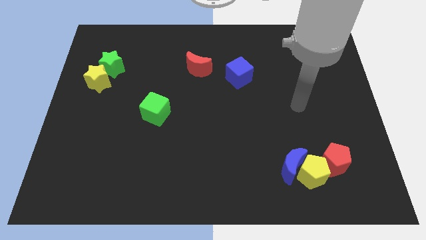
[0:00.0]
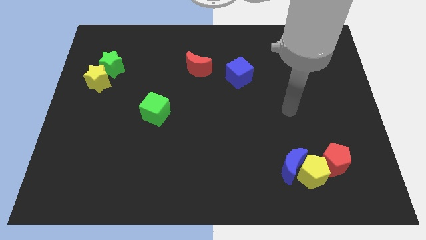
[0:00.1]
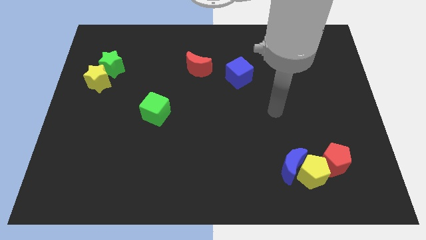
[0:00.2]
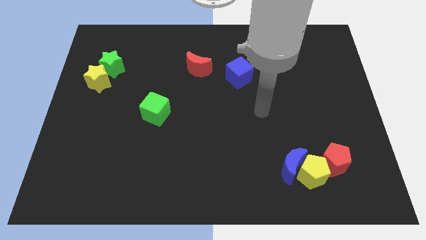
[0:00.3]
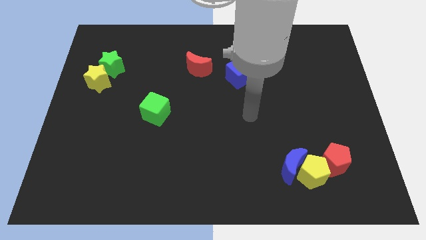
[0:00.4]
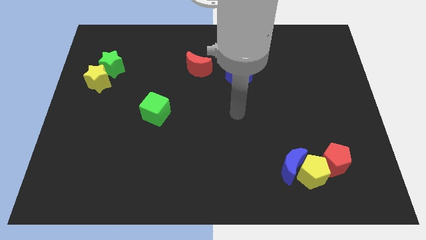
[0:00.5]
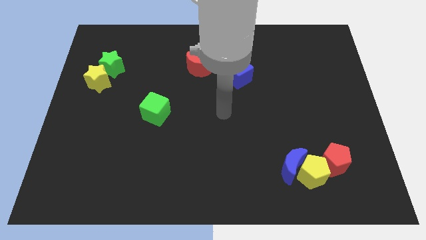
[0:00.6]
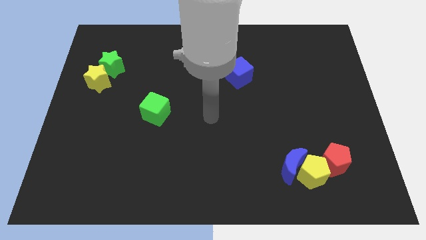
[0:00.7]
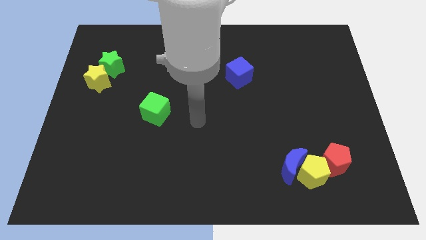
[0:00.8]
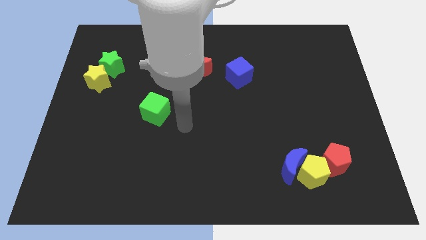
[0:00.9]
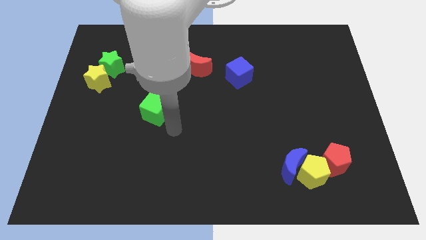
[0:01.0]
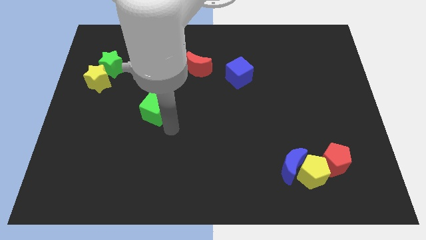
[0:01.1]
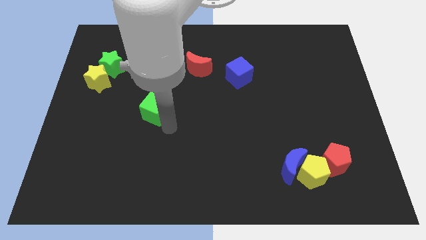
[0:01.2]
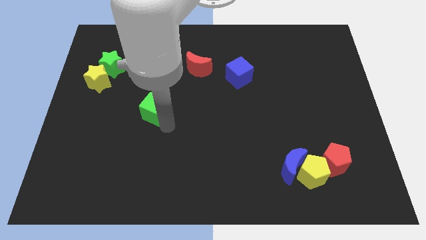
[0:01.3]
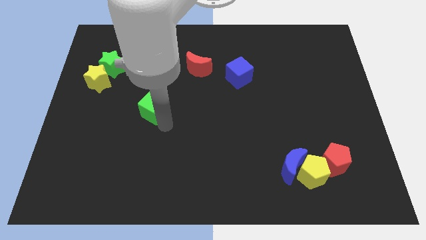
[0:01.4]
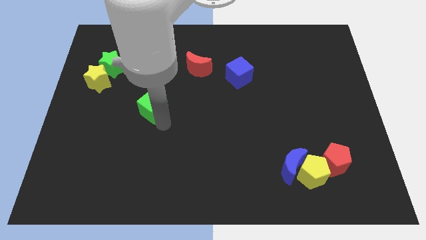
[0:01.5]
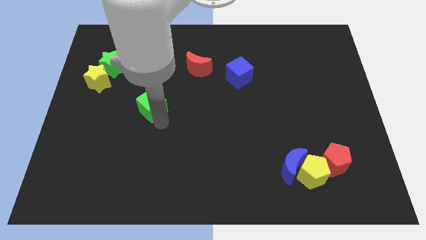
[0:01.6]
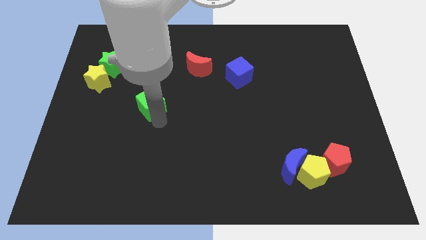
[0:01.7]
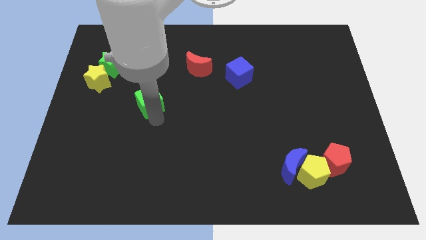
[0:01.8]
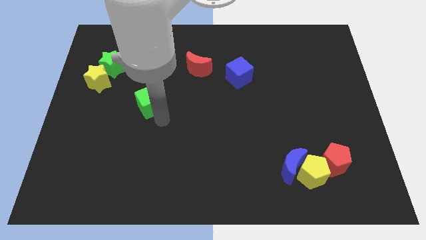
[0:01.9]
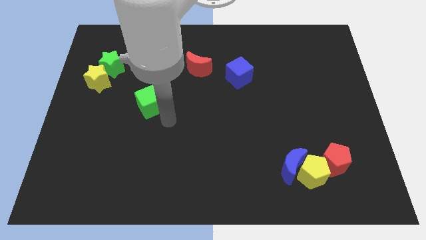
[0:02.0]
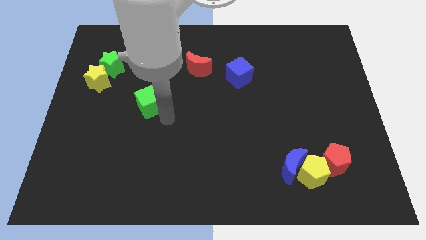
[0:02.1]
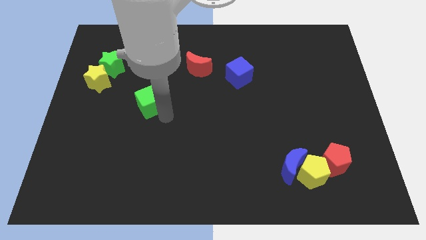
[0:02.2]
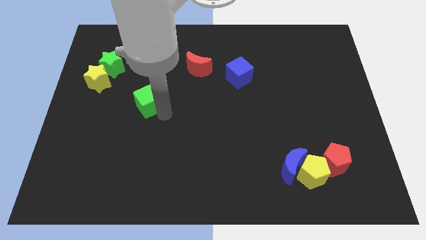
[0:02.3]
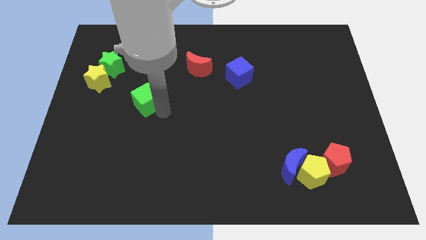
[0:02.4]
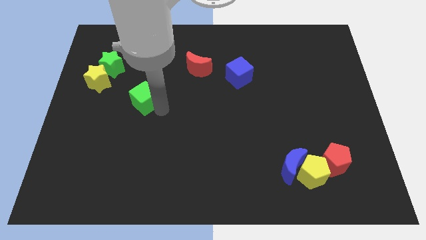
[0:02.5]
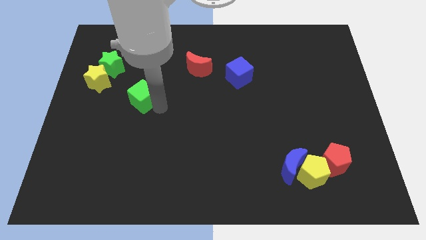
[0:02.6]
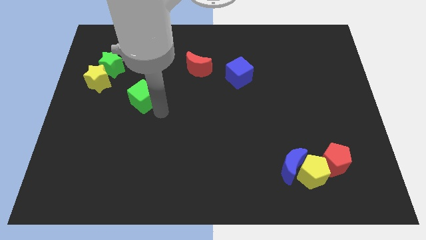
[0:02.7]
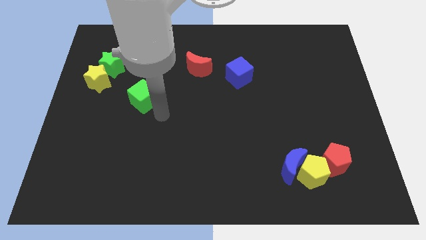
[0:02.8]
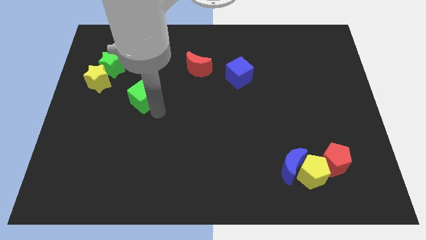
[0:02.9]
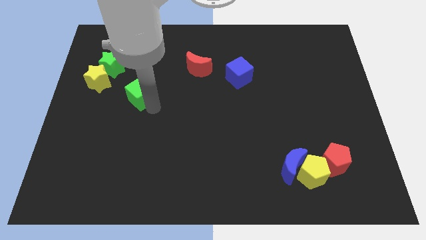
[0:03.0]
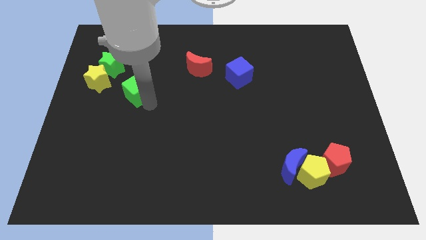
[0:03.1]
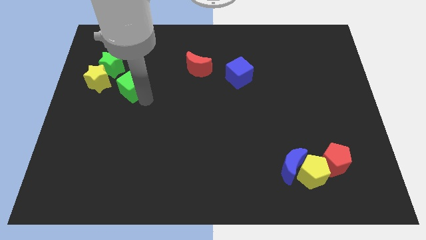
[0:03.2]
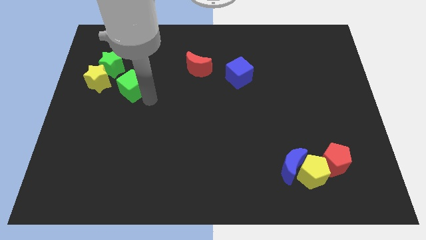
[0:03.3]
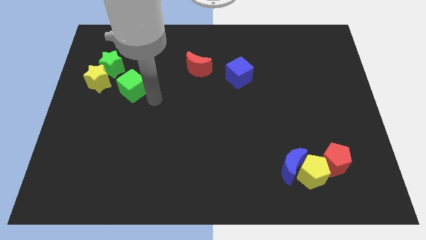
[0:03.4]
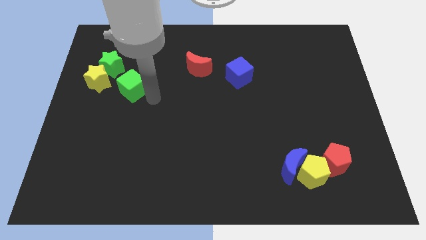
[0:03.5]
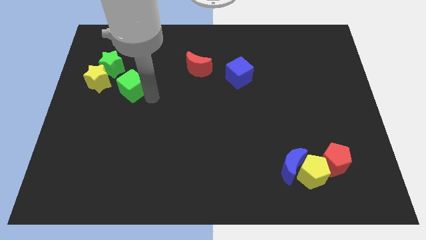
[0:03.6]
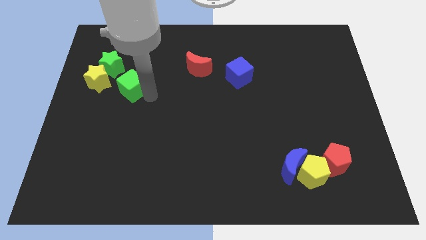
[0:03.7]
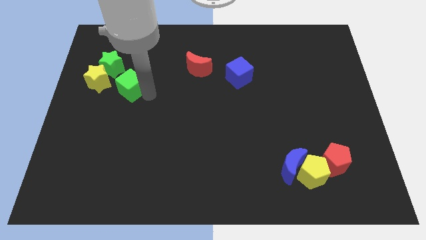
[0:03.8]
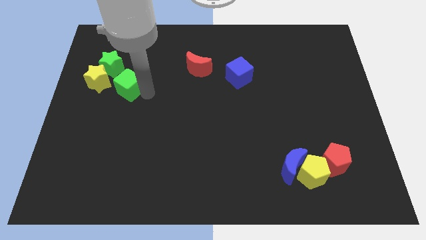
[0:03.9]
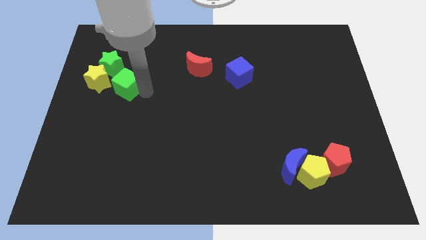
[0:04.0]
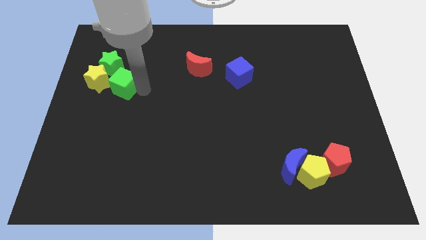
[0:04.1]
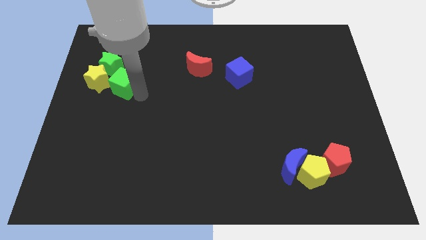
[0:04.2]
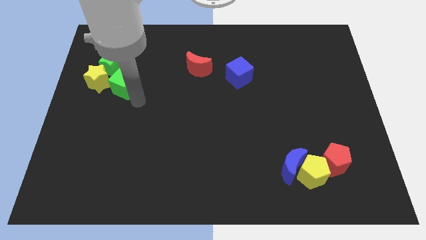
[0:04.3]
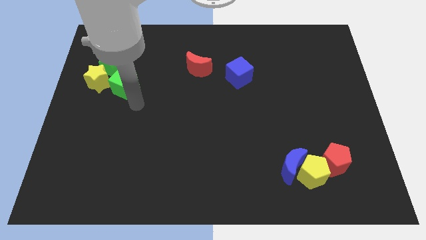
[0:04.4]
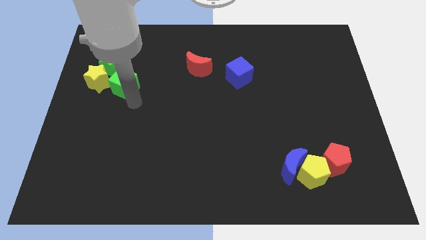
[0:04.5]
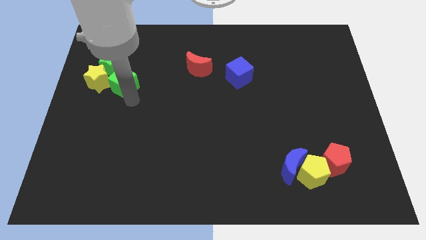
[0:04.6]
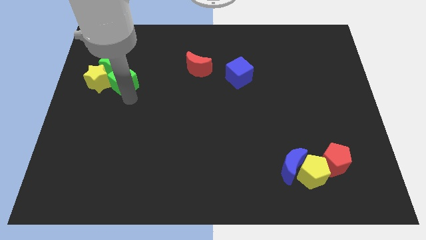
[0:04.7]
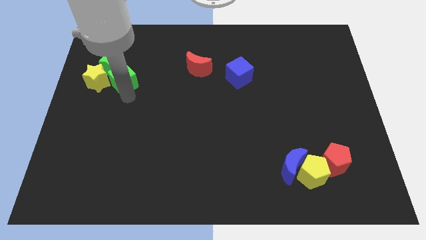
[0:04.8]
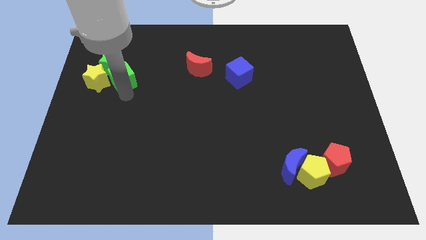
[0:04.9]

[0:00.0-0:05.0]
put the green cube to the green star

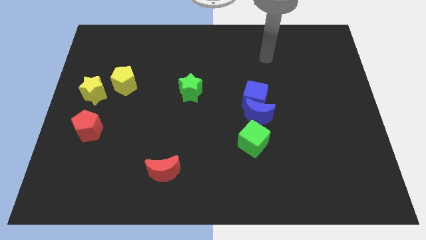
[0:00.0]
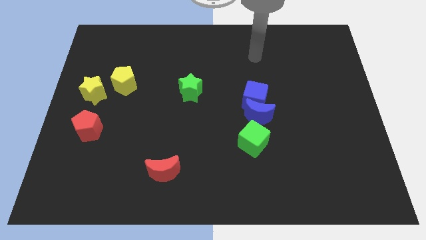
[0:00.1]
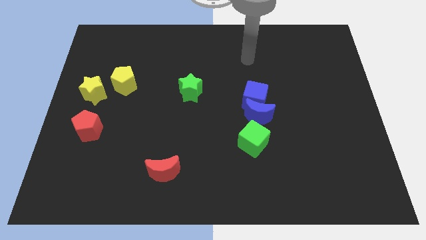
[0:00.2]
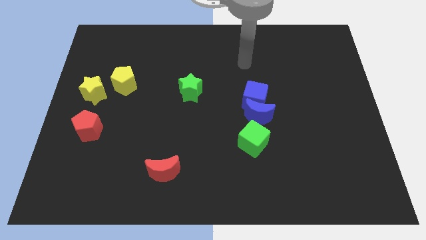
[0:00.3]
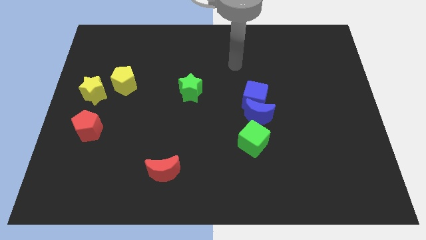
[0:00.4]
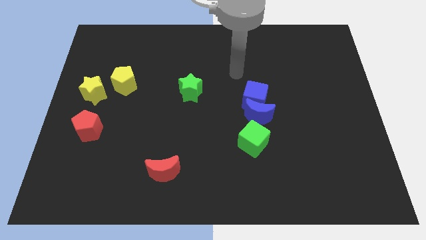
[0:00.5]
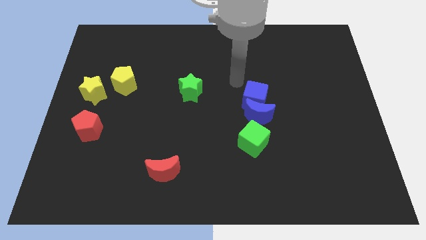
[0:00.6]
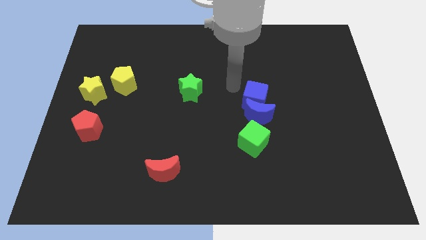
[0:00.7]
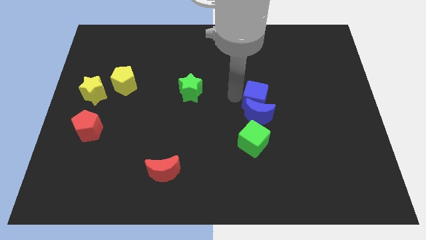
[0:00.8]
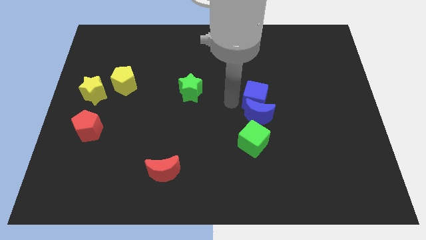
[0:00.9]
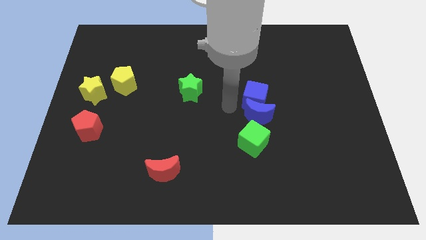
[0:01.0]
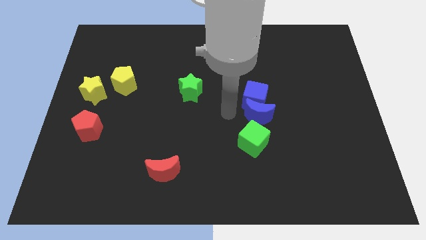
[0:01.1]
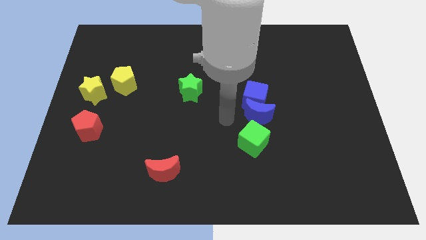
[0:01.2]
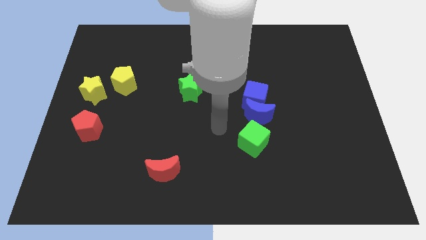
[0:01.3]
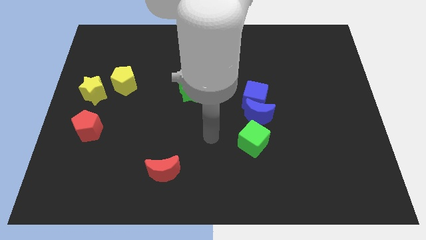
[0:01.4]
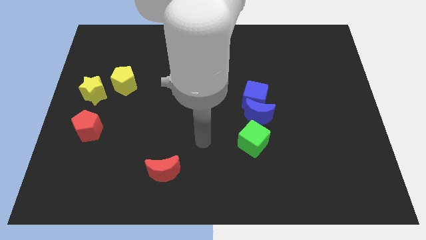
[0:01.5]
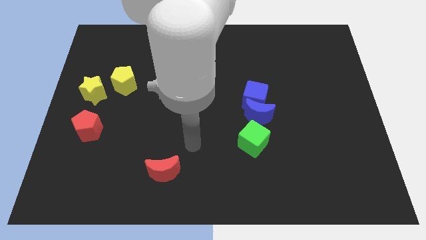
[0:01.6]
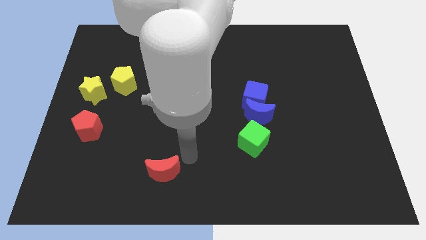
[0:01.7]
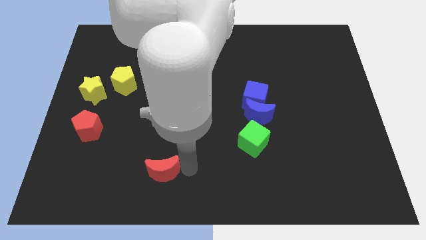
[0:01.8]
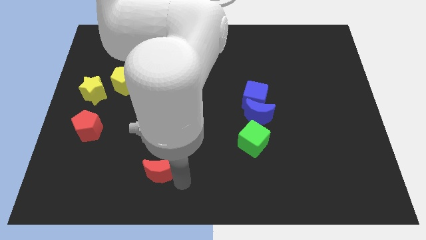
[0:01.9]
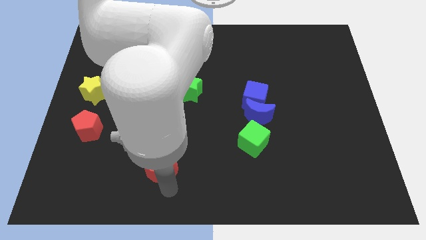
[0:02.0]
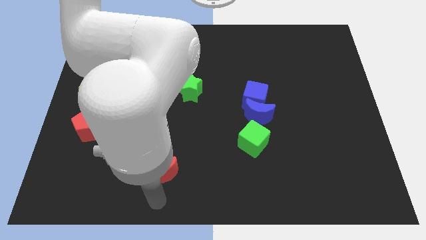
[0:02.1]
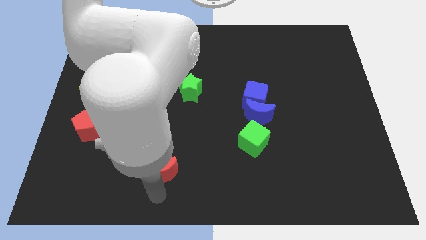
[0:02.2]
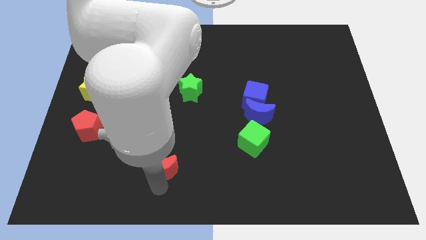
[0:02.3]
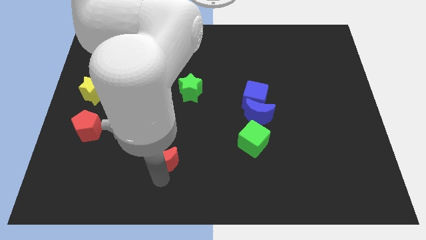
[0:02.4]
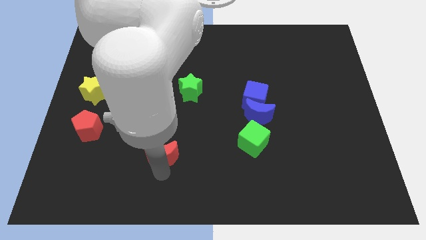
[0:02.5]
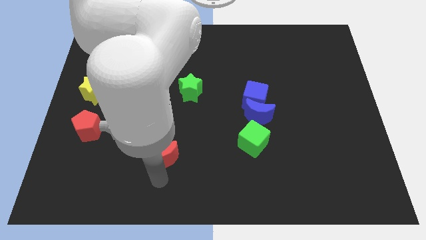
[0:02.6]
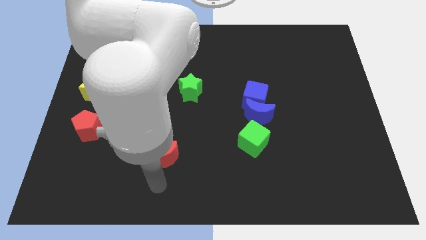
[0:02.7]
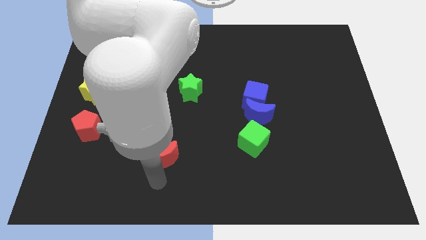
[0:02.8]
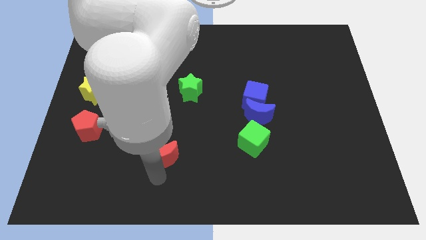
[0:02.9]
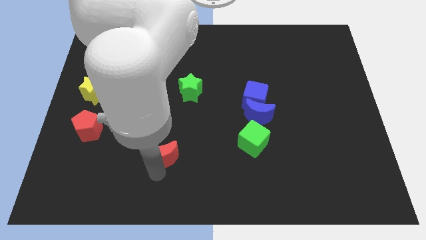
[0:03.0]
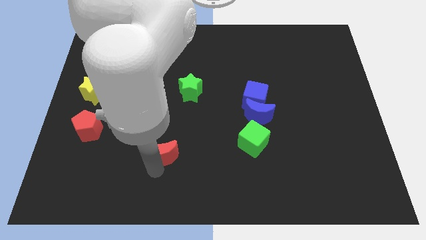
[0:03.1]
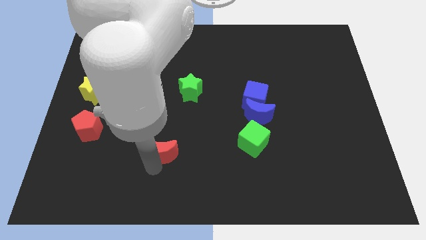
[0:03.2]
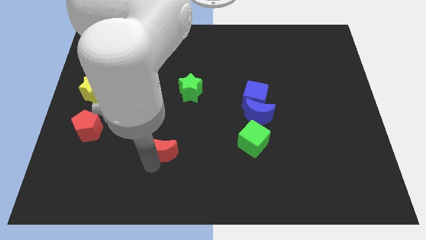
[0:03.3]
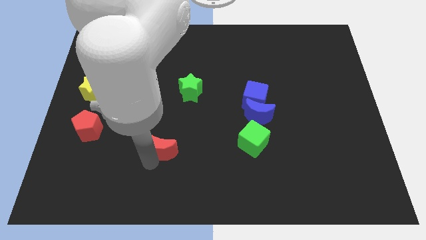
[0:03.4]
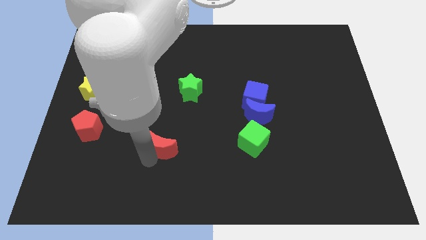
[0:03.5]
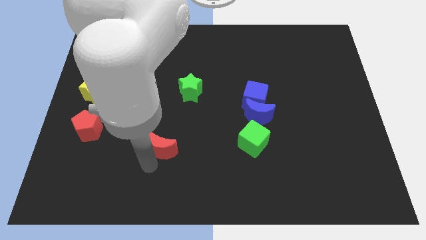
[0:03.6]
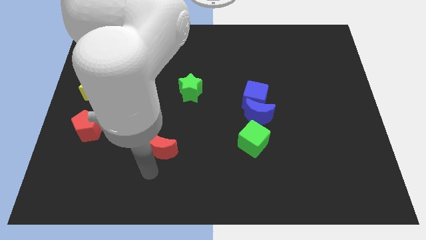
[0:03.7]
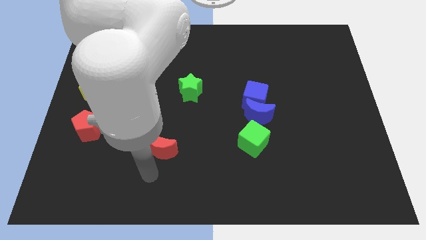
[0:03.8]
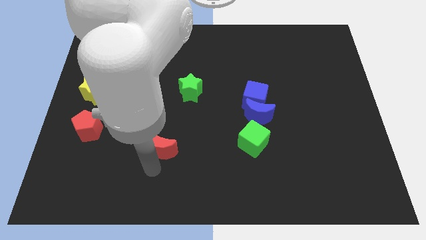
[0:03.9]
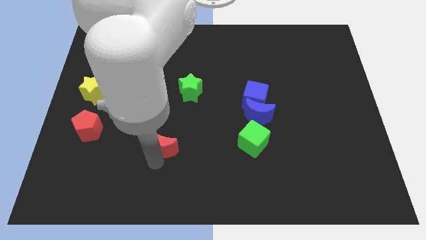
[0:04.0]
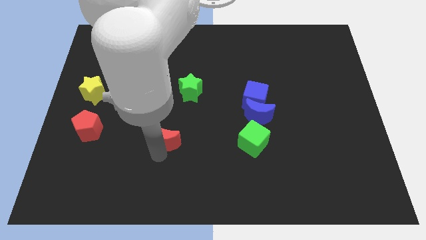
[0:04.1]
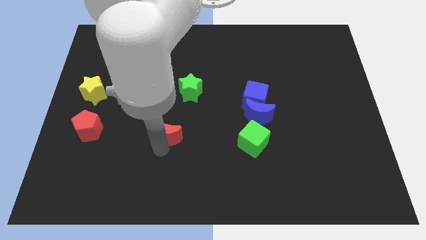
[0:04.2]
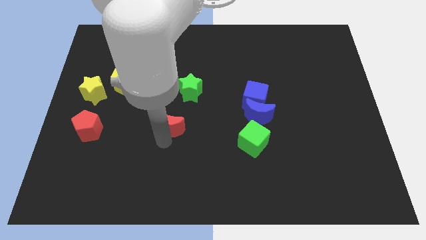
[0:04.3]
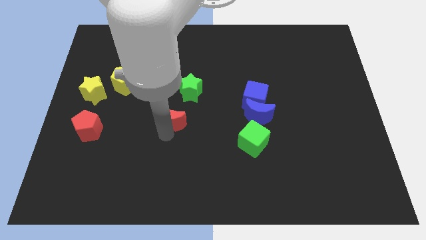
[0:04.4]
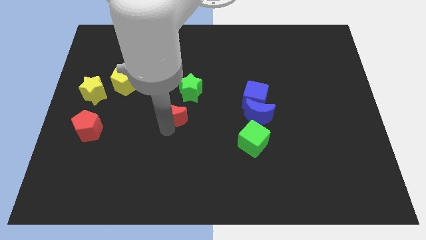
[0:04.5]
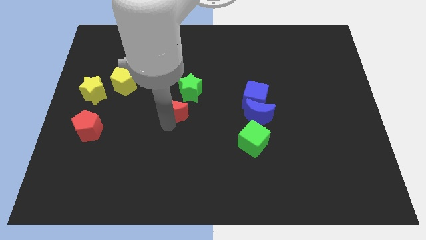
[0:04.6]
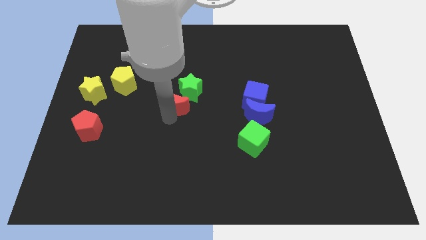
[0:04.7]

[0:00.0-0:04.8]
slide the red moon to the green star
